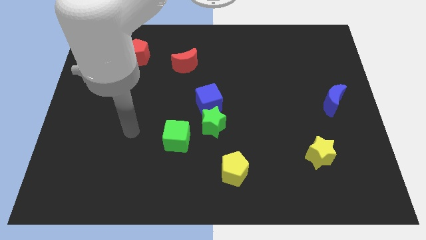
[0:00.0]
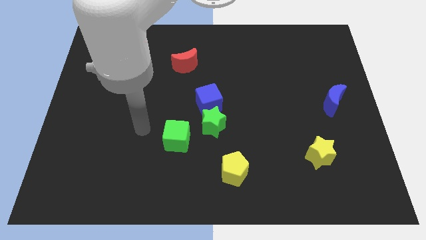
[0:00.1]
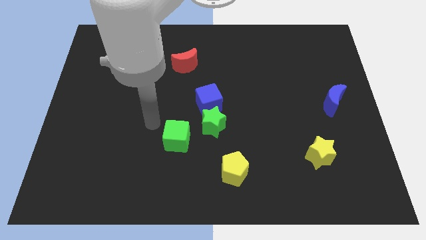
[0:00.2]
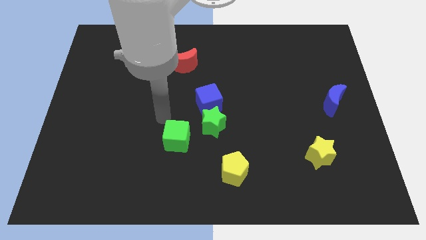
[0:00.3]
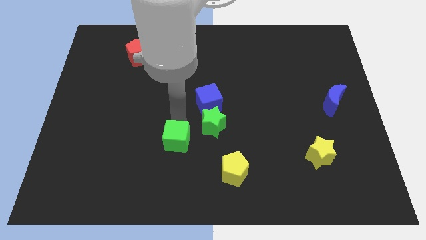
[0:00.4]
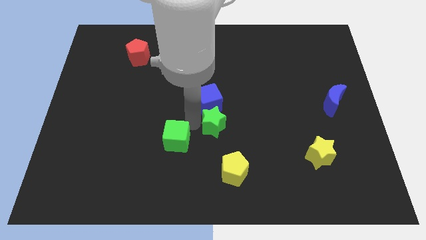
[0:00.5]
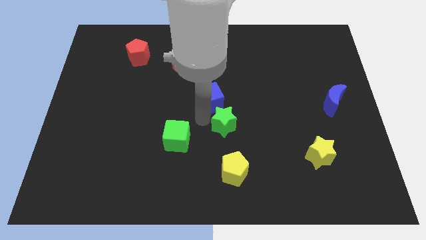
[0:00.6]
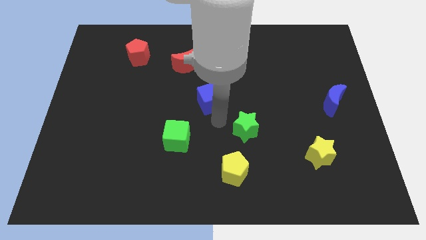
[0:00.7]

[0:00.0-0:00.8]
move the blue cube away from the green star

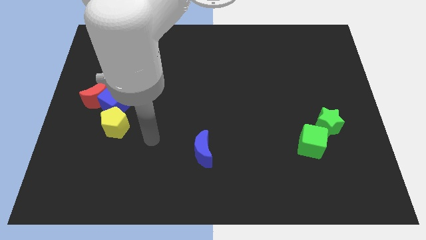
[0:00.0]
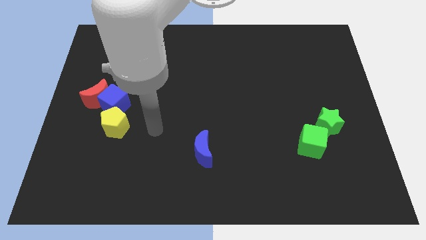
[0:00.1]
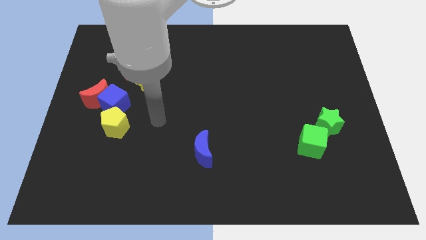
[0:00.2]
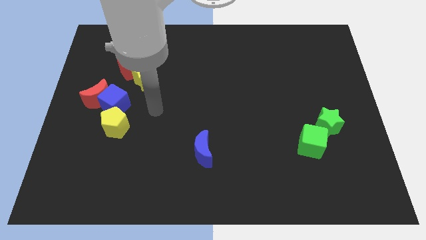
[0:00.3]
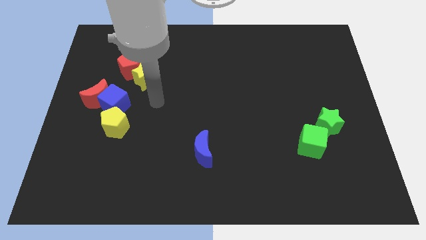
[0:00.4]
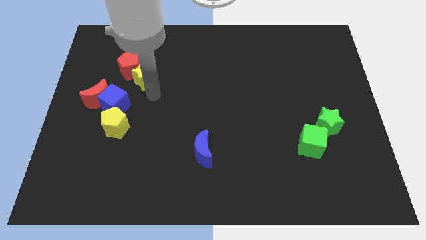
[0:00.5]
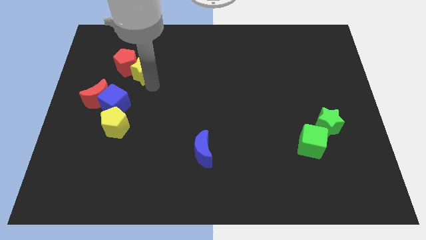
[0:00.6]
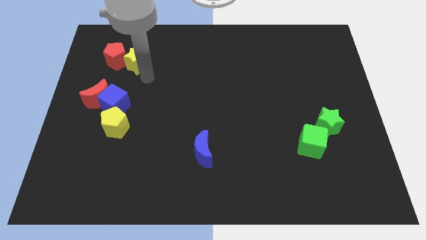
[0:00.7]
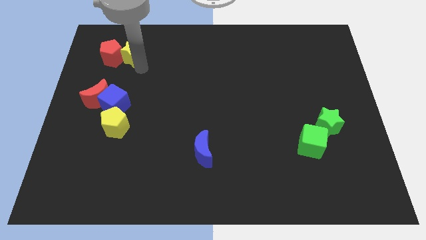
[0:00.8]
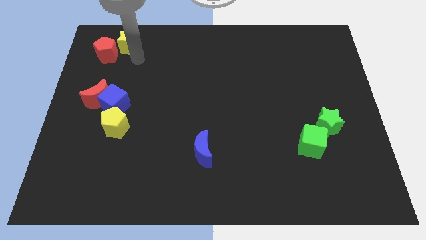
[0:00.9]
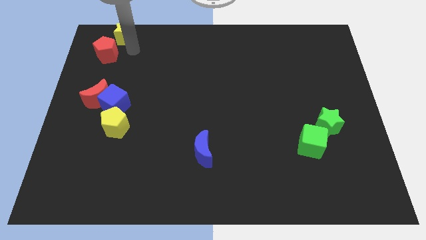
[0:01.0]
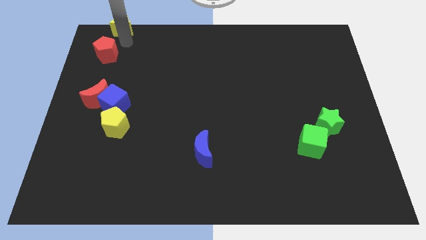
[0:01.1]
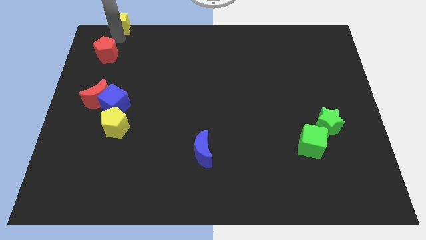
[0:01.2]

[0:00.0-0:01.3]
move the red pentagon away from the yellow star

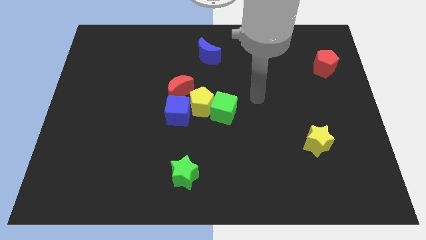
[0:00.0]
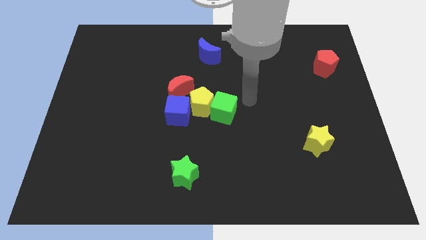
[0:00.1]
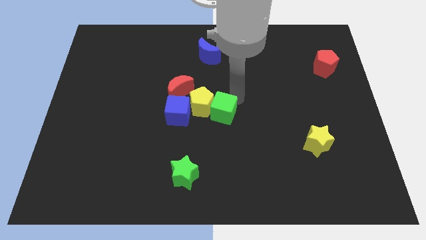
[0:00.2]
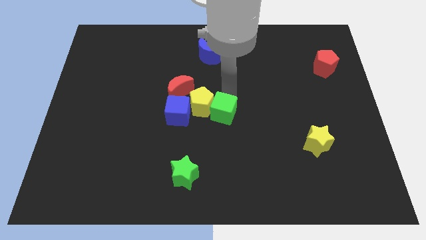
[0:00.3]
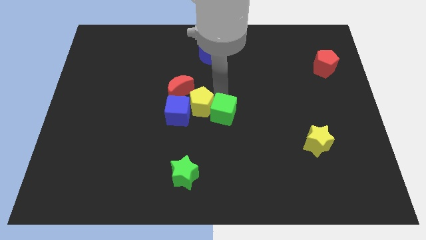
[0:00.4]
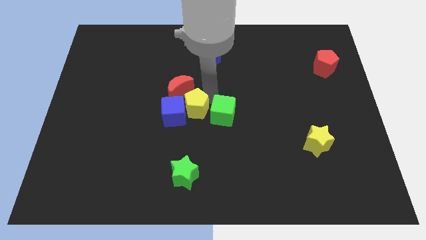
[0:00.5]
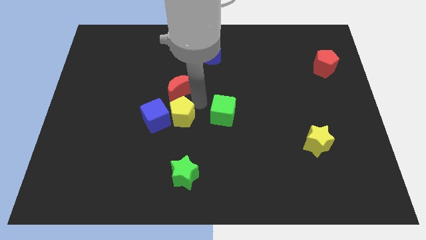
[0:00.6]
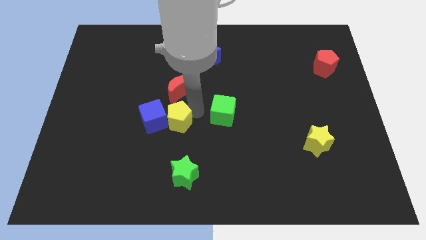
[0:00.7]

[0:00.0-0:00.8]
separate the green cube from the yellow pentagon

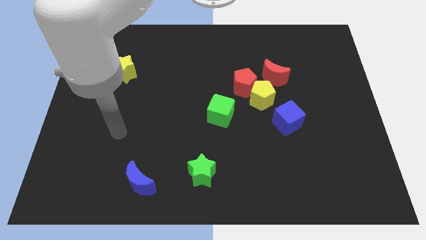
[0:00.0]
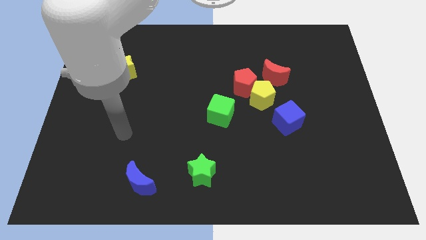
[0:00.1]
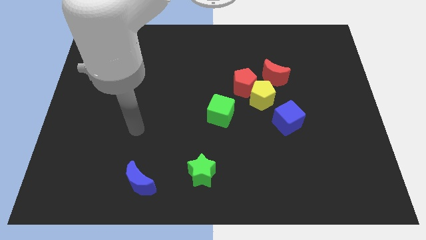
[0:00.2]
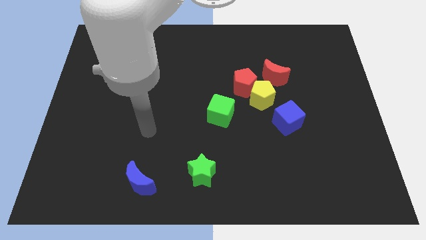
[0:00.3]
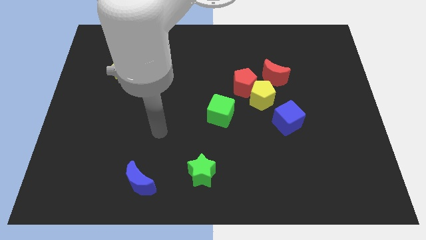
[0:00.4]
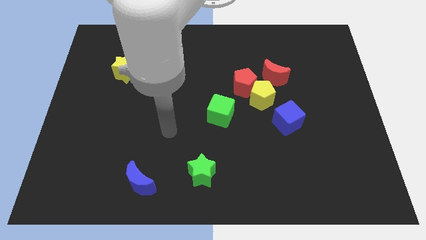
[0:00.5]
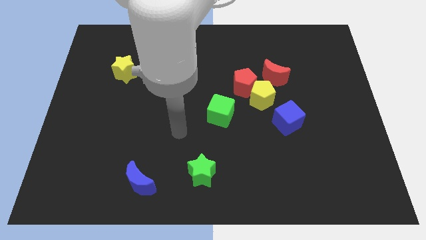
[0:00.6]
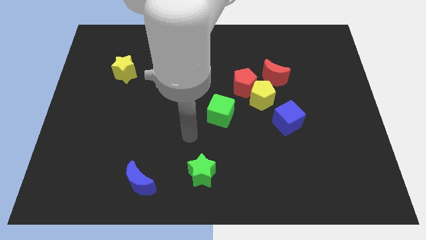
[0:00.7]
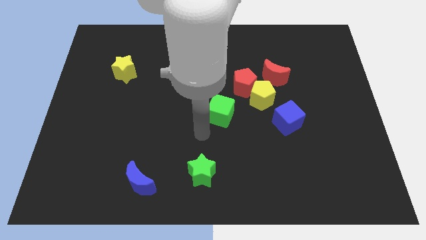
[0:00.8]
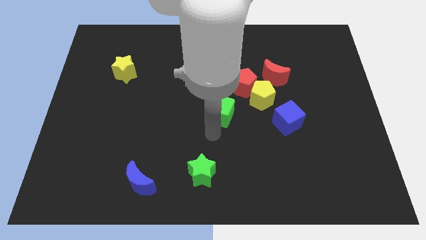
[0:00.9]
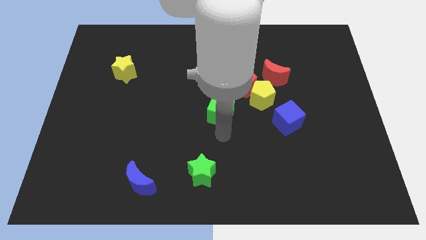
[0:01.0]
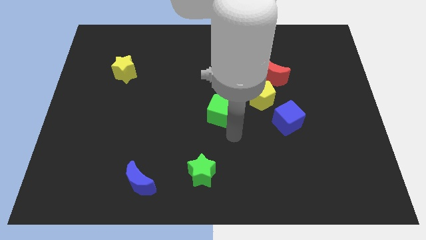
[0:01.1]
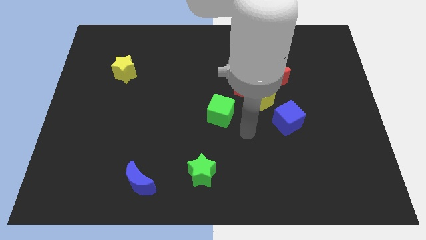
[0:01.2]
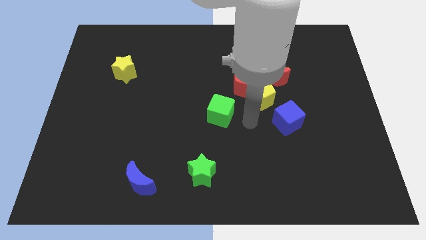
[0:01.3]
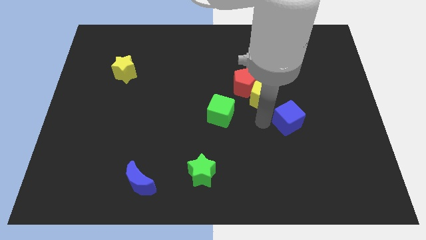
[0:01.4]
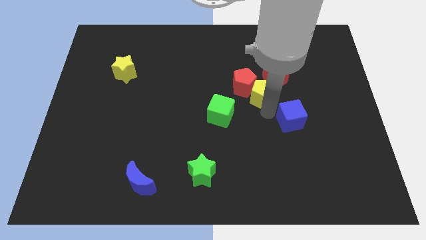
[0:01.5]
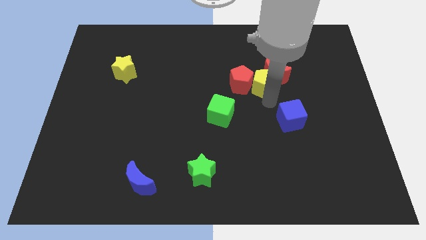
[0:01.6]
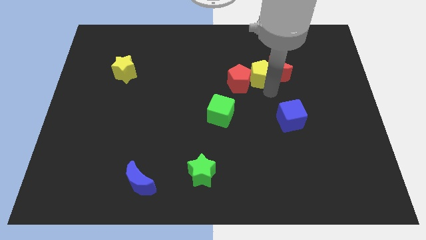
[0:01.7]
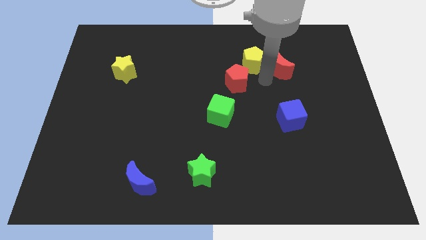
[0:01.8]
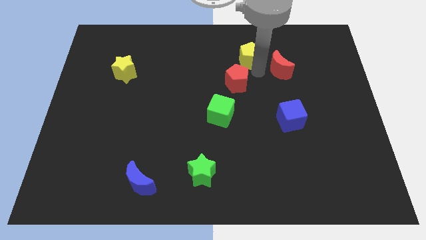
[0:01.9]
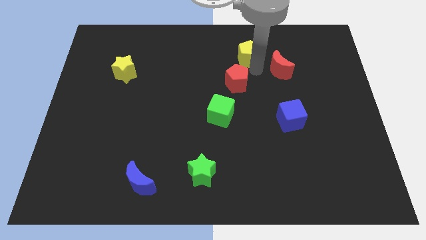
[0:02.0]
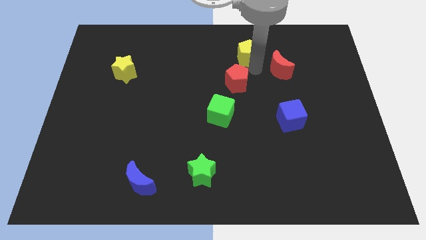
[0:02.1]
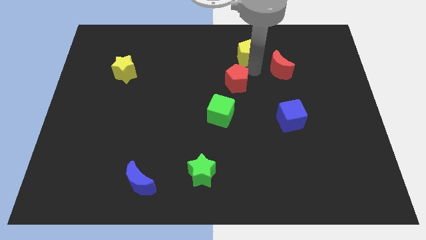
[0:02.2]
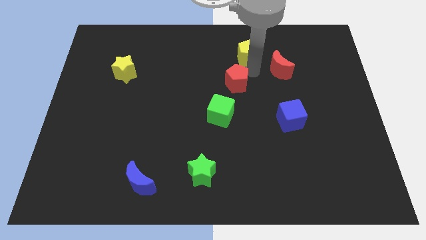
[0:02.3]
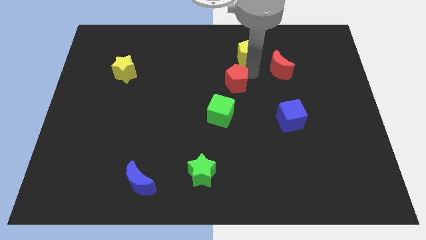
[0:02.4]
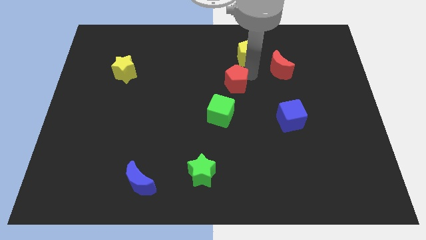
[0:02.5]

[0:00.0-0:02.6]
separate the red pentagon from the yellow pentagon and red moon

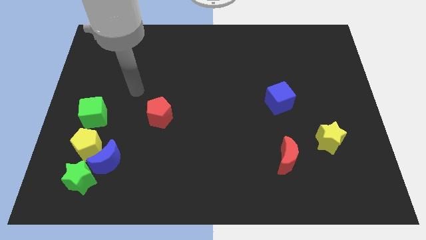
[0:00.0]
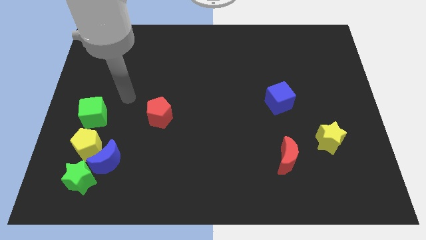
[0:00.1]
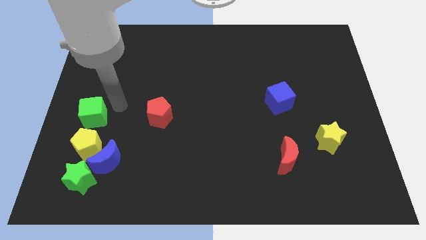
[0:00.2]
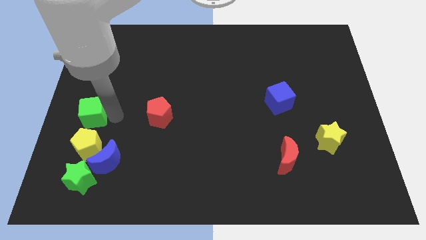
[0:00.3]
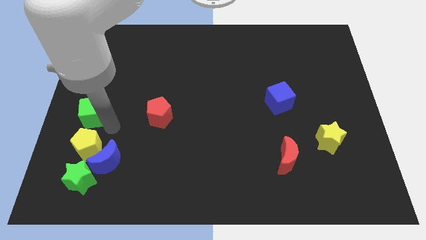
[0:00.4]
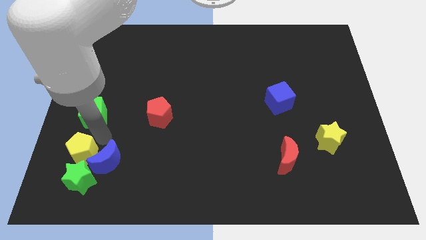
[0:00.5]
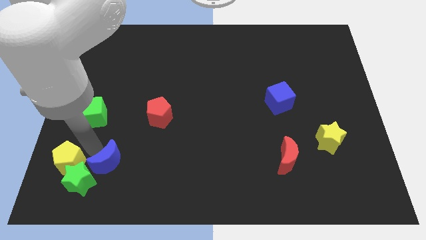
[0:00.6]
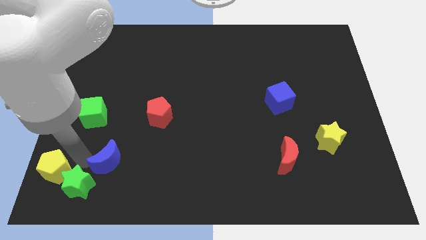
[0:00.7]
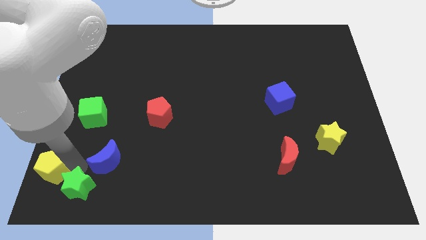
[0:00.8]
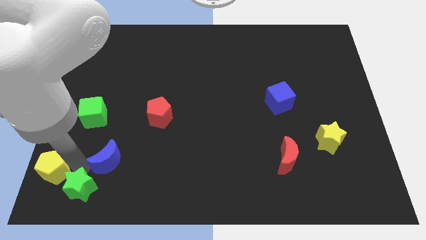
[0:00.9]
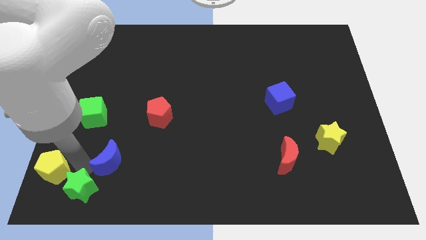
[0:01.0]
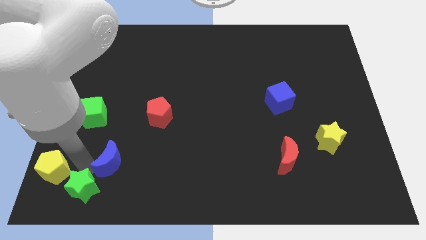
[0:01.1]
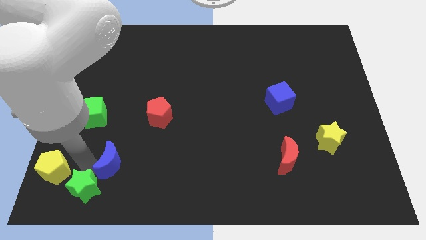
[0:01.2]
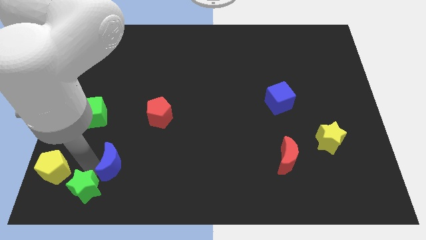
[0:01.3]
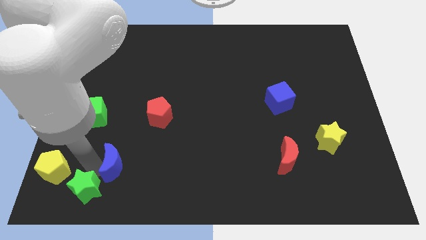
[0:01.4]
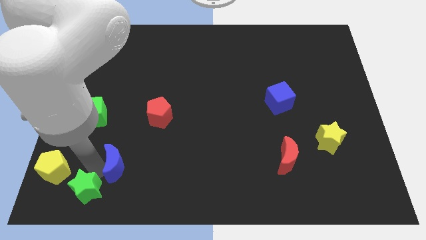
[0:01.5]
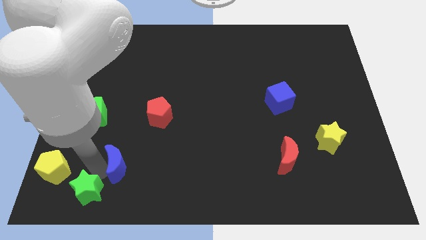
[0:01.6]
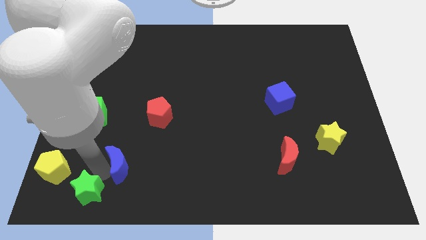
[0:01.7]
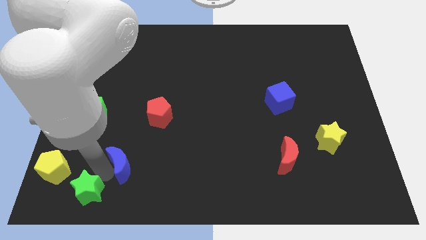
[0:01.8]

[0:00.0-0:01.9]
move the blue moon away from the yellow pentagon and green star

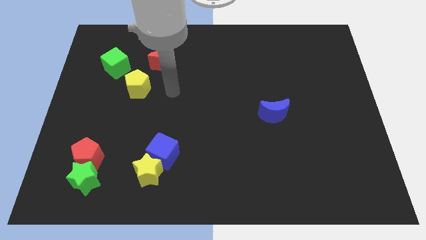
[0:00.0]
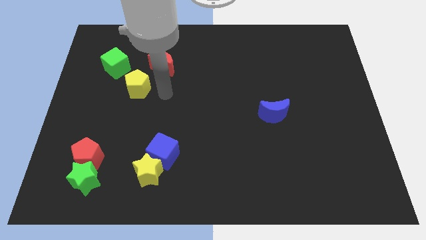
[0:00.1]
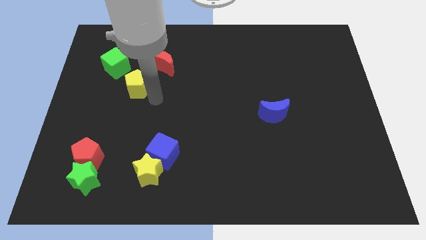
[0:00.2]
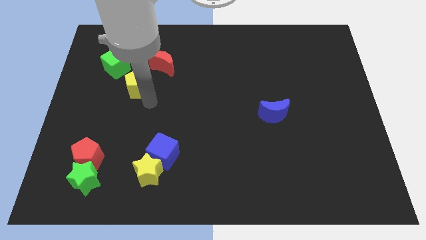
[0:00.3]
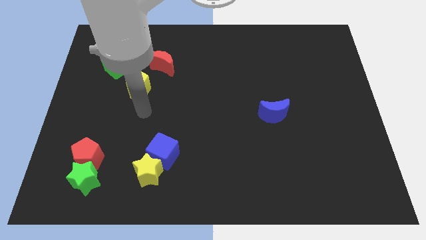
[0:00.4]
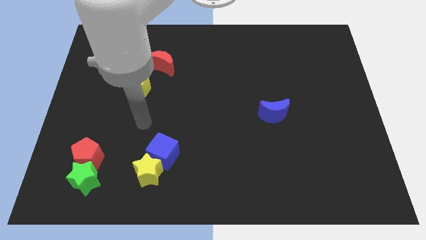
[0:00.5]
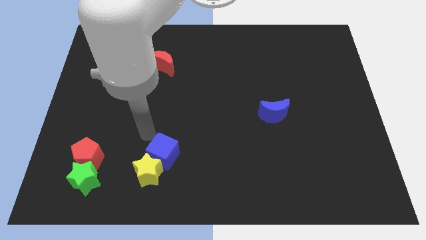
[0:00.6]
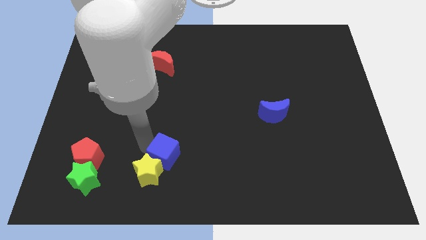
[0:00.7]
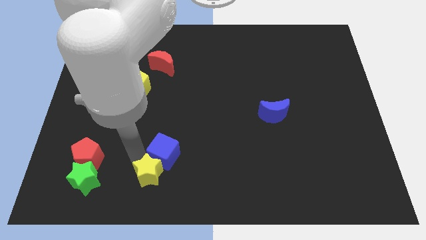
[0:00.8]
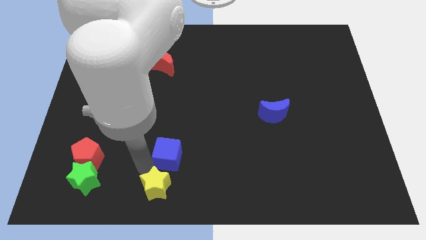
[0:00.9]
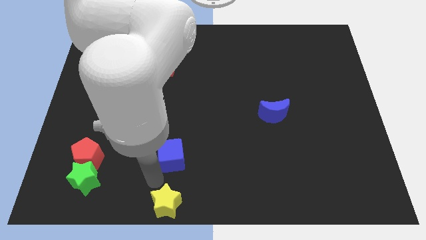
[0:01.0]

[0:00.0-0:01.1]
pull the blue cube apart from the yellow star

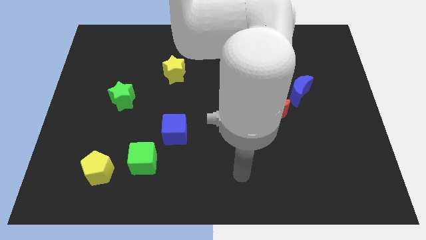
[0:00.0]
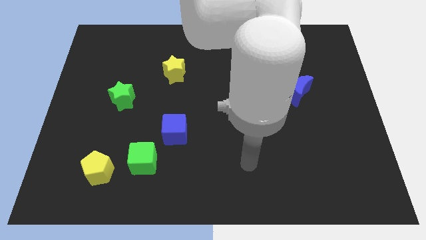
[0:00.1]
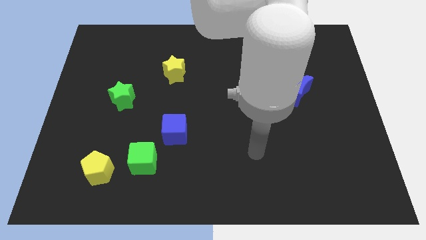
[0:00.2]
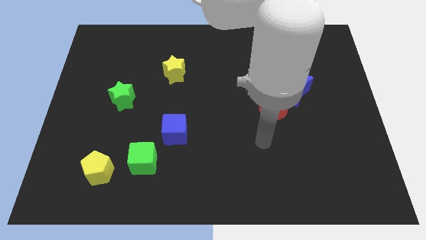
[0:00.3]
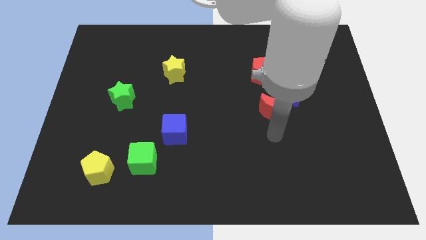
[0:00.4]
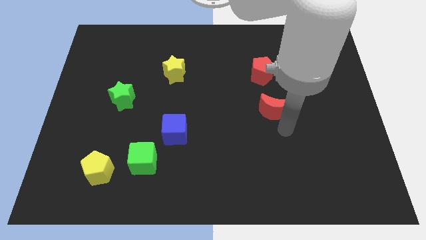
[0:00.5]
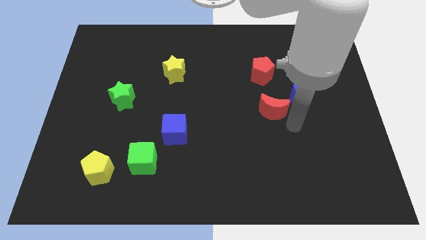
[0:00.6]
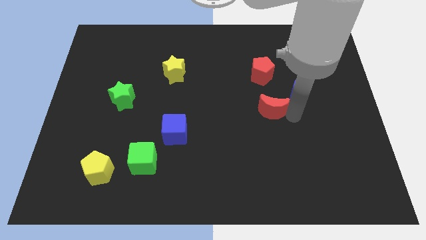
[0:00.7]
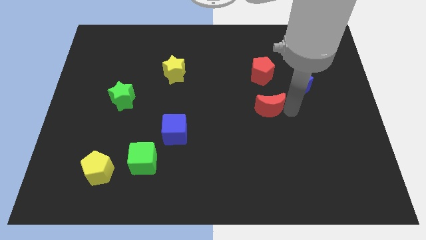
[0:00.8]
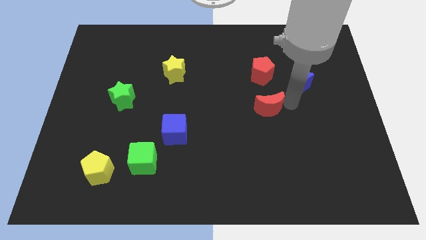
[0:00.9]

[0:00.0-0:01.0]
pull the red moon apart from the blue moon
